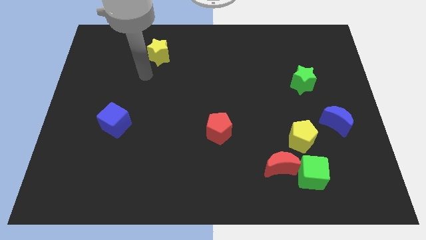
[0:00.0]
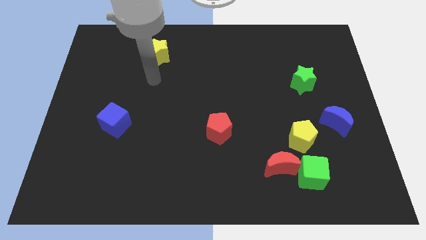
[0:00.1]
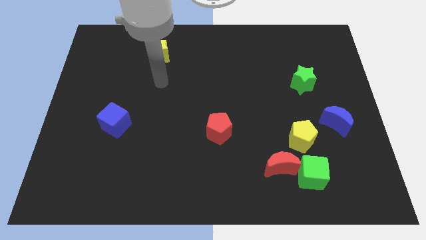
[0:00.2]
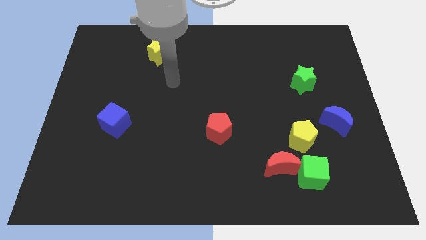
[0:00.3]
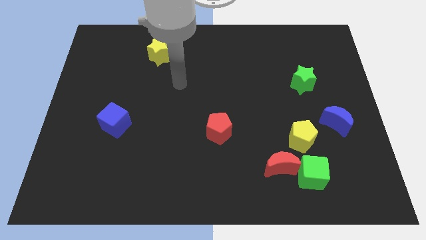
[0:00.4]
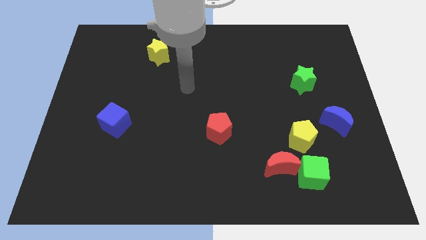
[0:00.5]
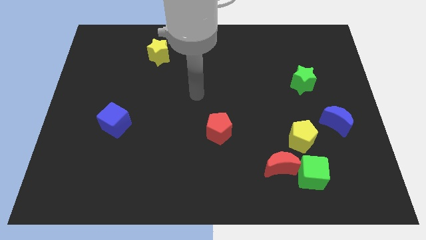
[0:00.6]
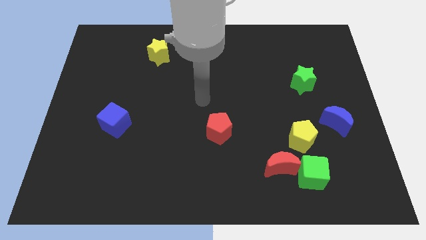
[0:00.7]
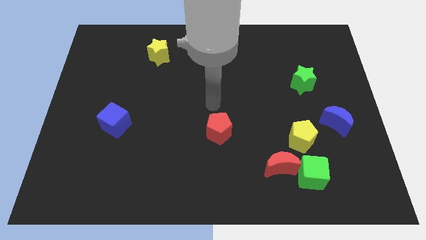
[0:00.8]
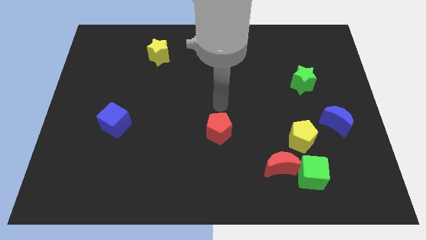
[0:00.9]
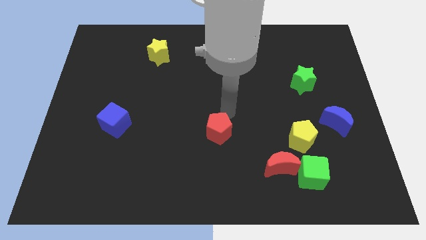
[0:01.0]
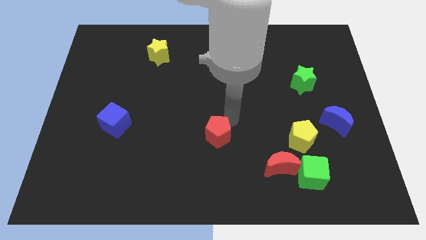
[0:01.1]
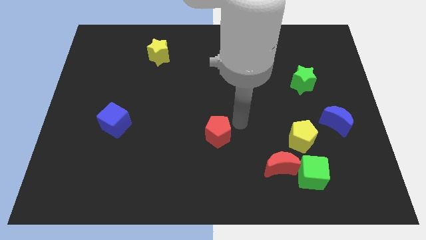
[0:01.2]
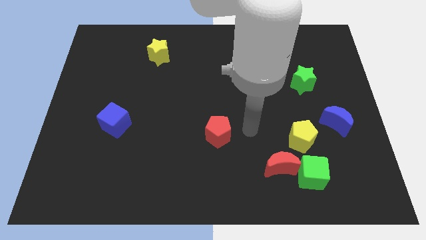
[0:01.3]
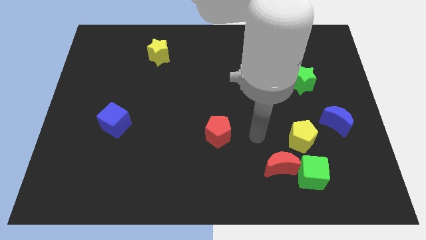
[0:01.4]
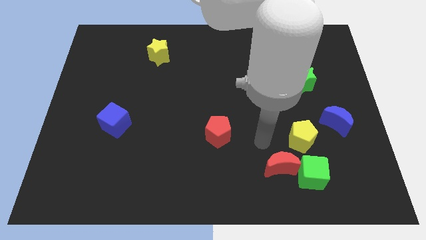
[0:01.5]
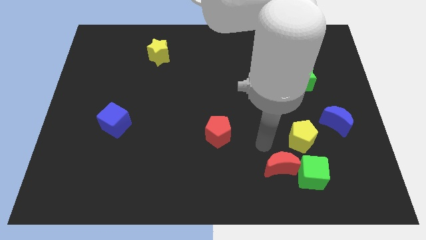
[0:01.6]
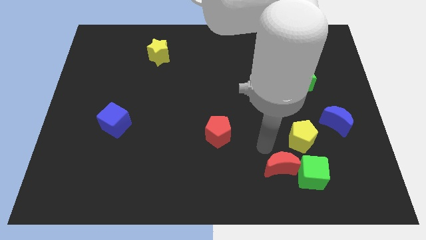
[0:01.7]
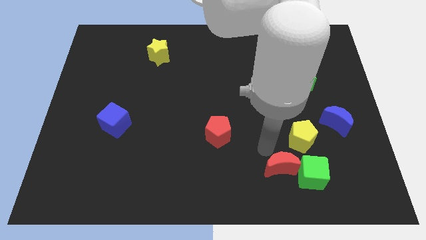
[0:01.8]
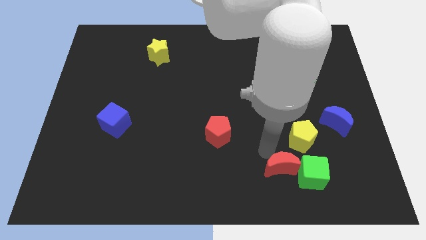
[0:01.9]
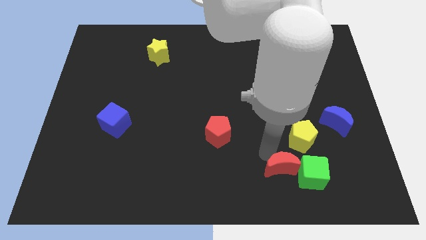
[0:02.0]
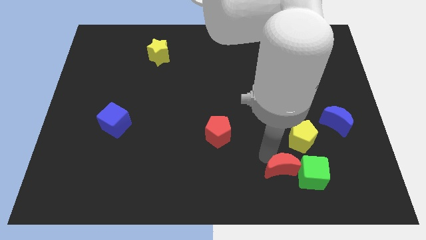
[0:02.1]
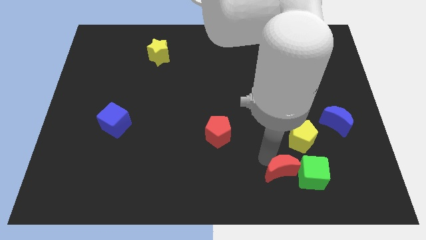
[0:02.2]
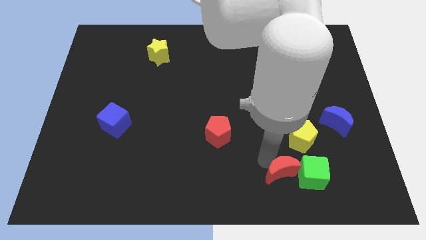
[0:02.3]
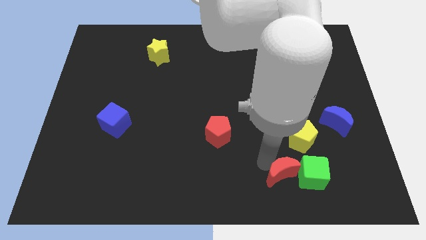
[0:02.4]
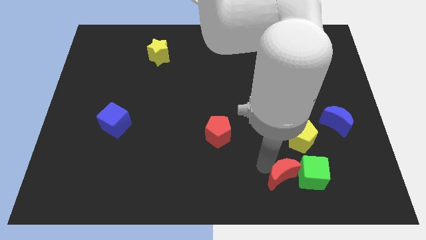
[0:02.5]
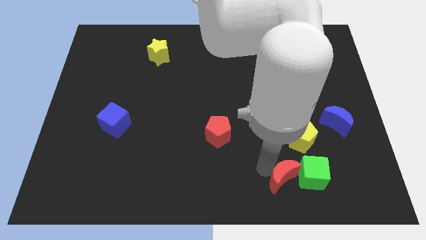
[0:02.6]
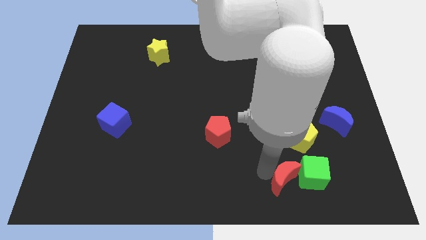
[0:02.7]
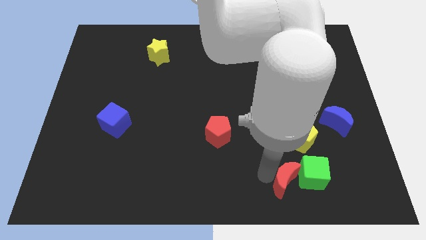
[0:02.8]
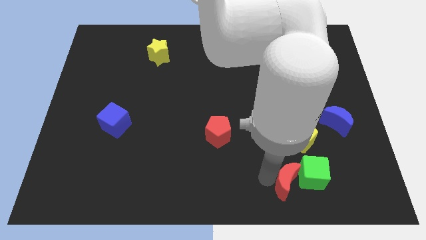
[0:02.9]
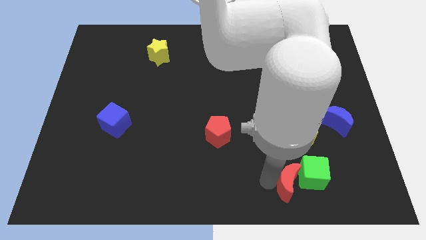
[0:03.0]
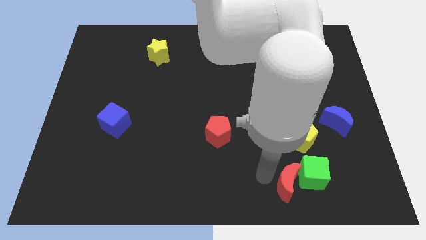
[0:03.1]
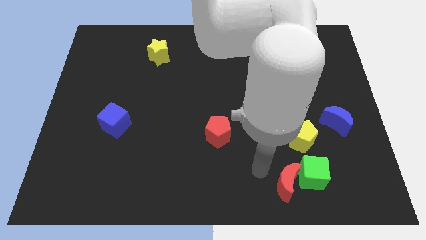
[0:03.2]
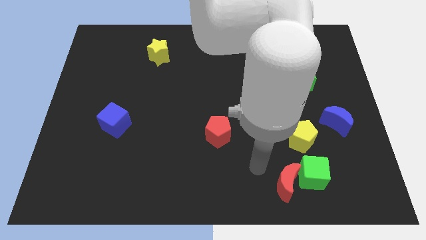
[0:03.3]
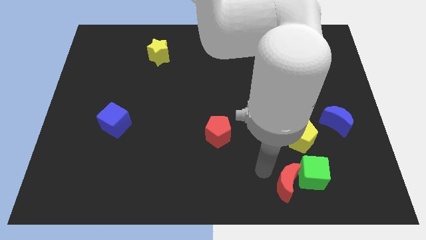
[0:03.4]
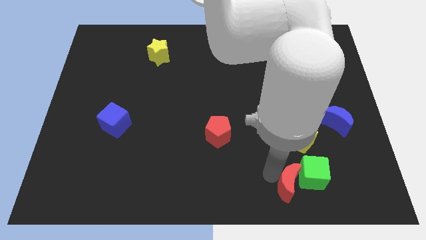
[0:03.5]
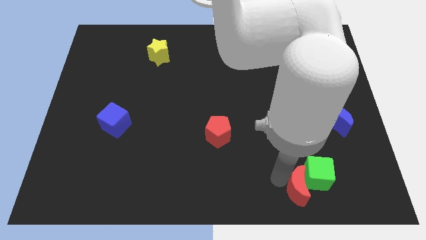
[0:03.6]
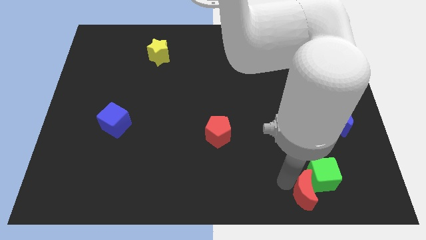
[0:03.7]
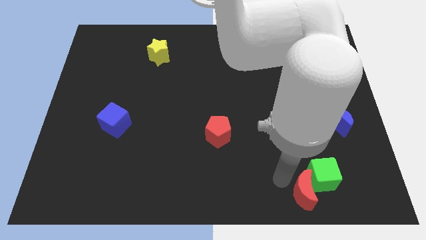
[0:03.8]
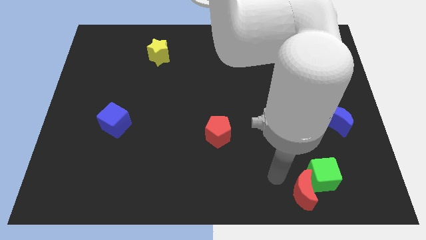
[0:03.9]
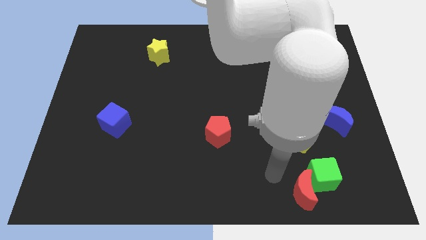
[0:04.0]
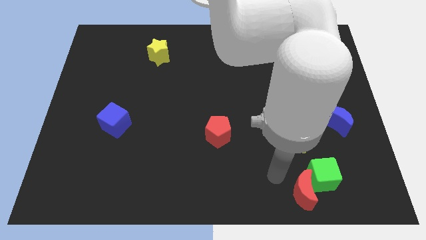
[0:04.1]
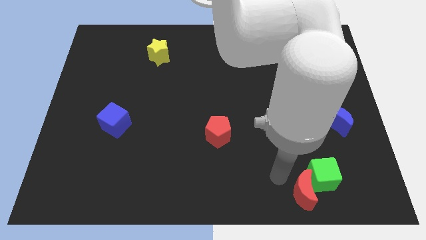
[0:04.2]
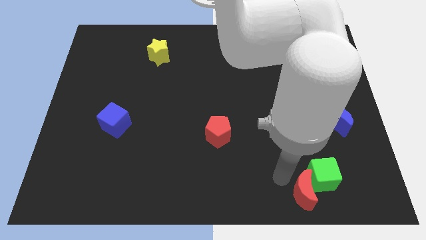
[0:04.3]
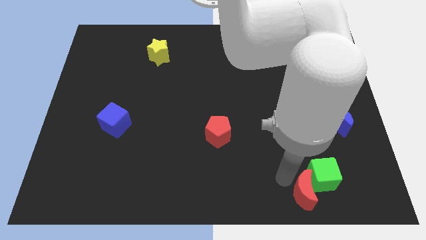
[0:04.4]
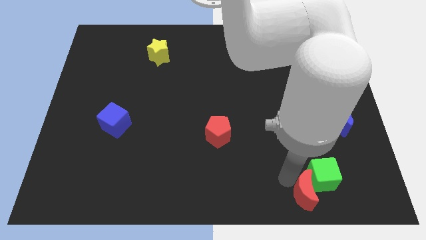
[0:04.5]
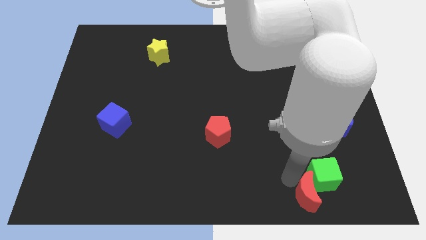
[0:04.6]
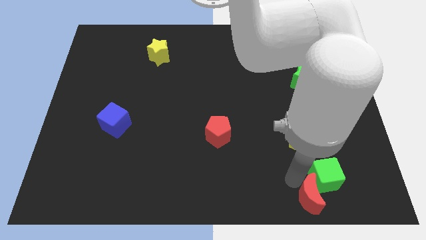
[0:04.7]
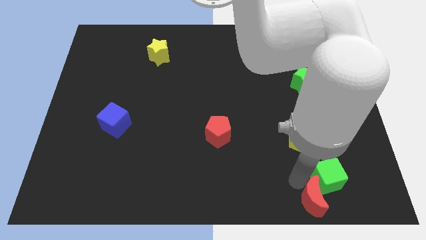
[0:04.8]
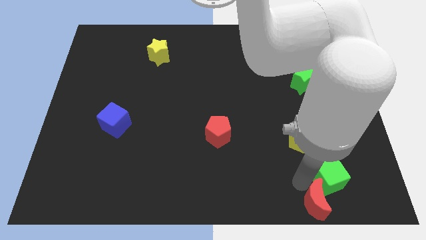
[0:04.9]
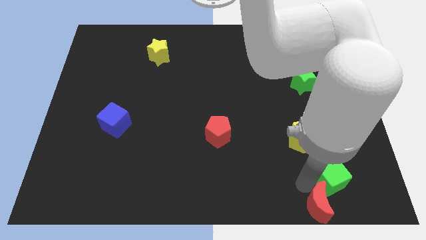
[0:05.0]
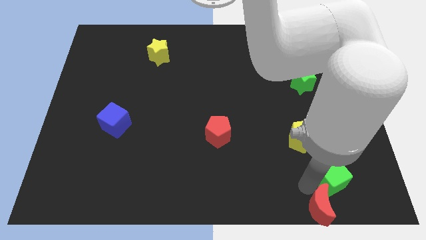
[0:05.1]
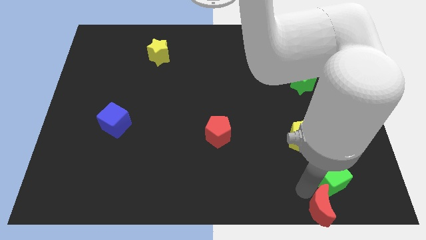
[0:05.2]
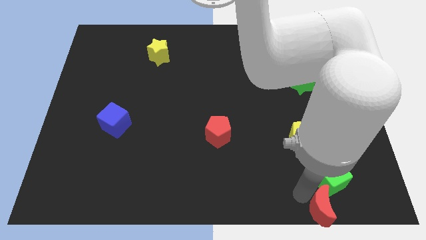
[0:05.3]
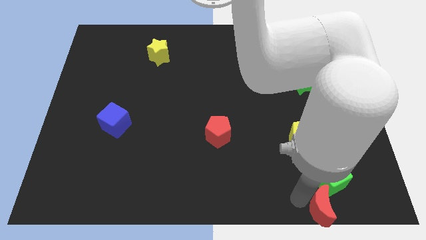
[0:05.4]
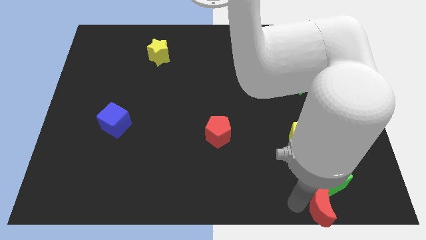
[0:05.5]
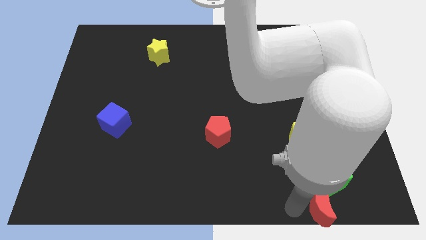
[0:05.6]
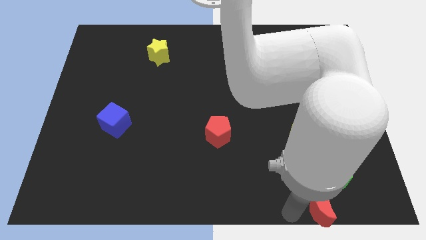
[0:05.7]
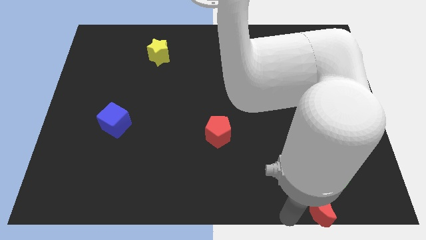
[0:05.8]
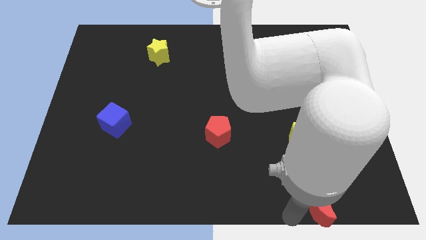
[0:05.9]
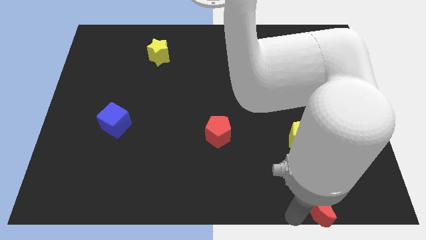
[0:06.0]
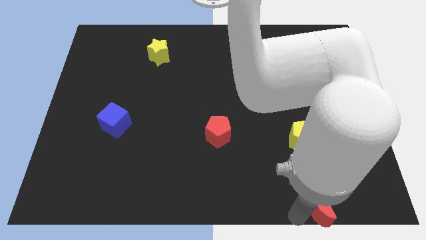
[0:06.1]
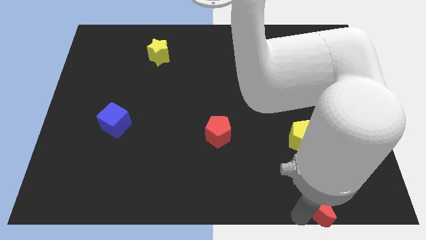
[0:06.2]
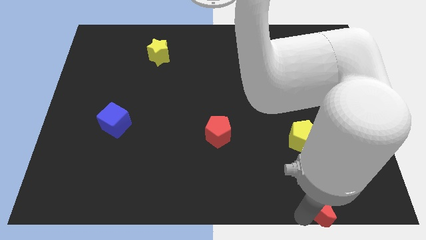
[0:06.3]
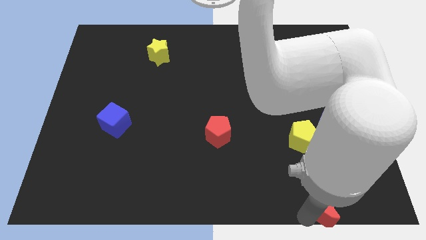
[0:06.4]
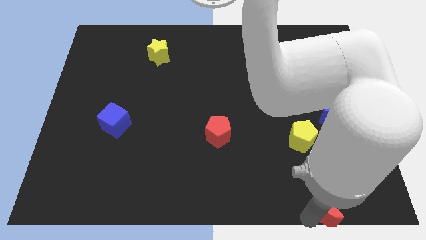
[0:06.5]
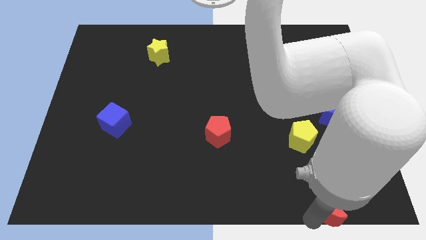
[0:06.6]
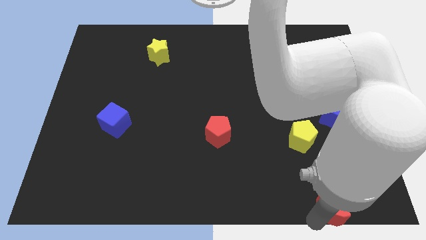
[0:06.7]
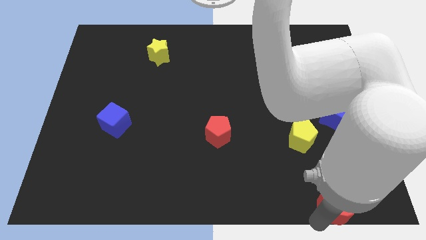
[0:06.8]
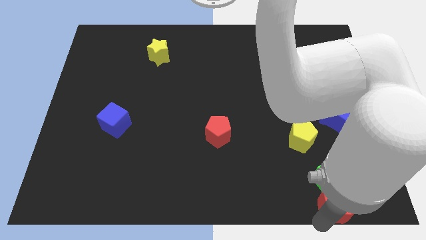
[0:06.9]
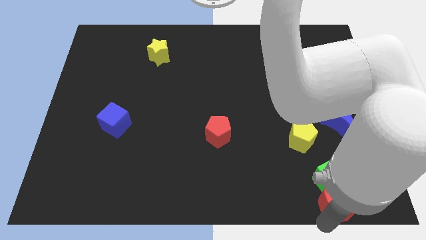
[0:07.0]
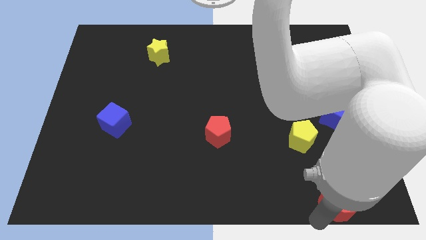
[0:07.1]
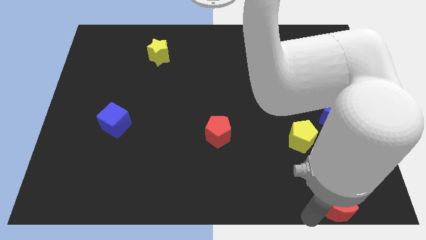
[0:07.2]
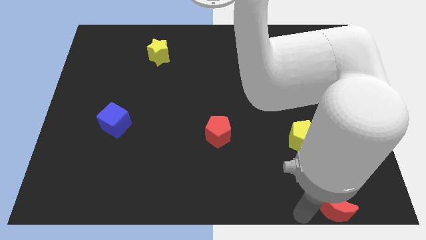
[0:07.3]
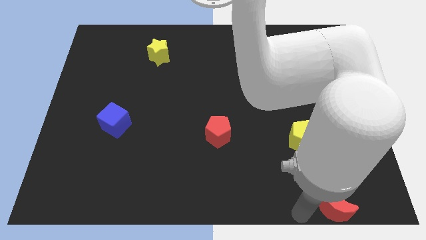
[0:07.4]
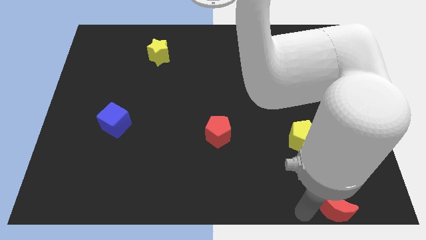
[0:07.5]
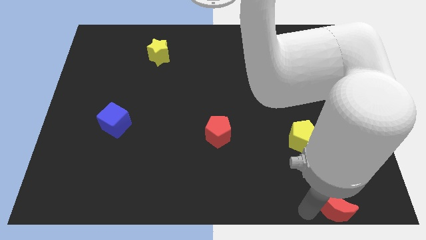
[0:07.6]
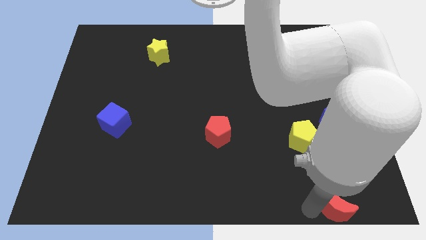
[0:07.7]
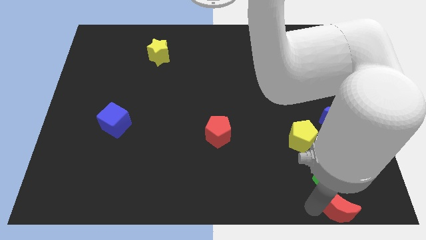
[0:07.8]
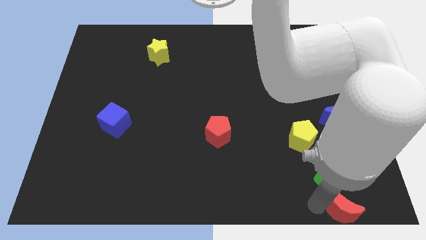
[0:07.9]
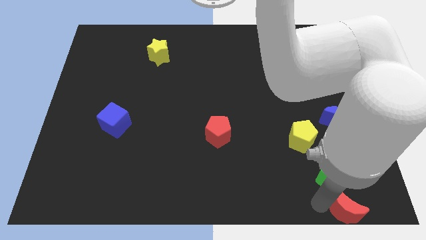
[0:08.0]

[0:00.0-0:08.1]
slide the red moon to the bottom right
